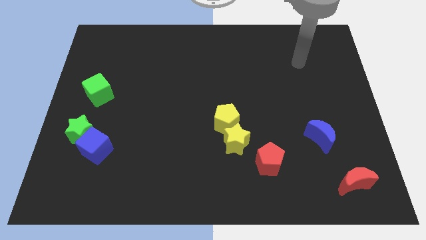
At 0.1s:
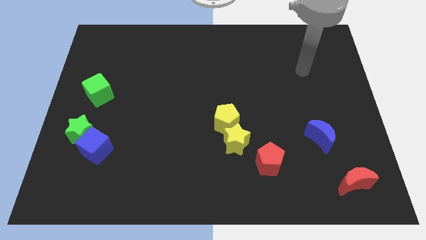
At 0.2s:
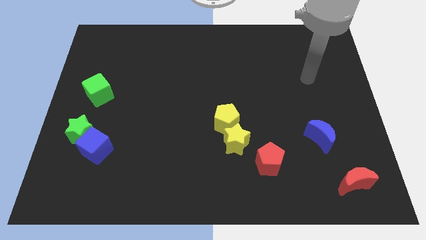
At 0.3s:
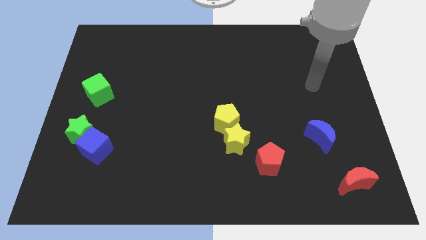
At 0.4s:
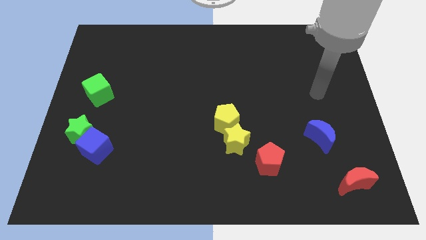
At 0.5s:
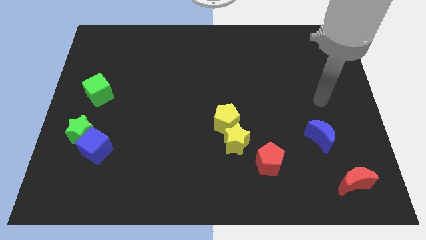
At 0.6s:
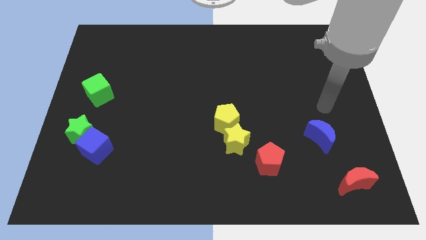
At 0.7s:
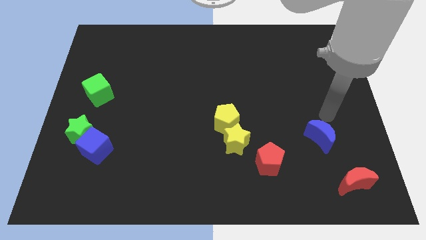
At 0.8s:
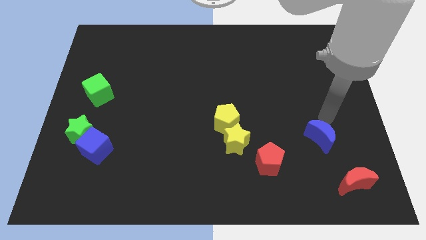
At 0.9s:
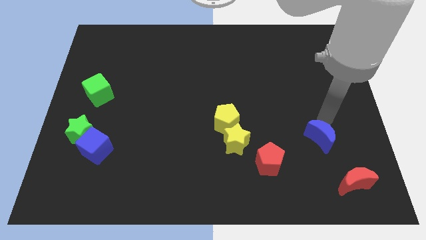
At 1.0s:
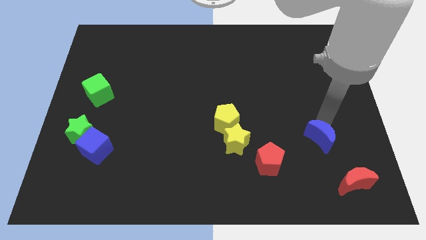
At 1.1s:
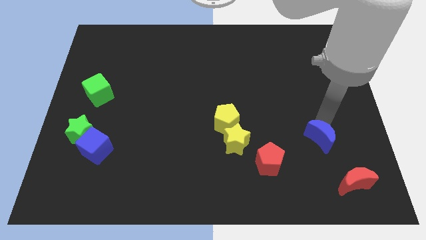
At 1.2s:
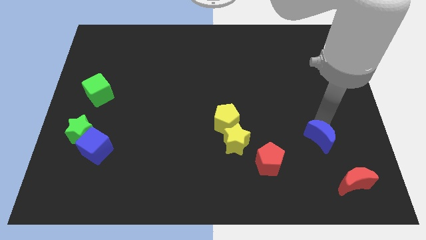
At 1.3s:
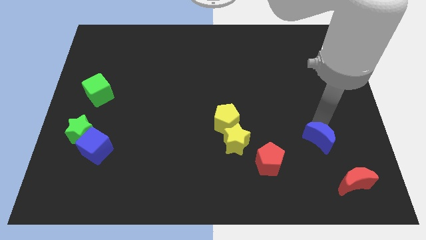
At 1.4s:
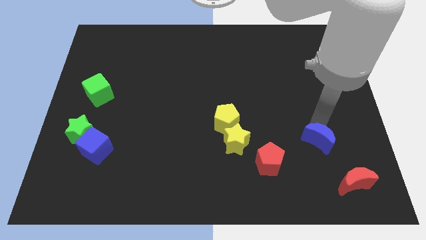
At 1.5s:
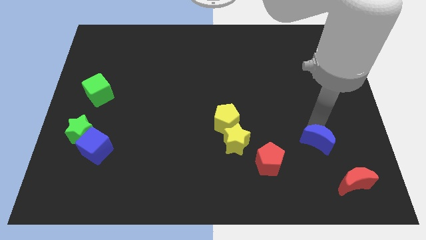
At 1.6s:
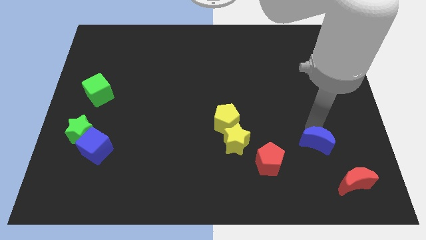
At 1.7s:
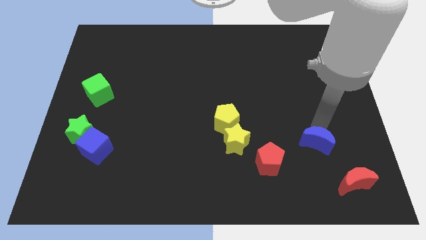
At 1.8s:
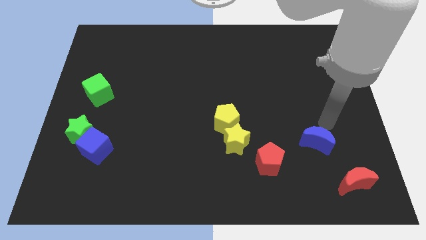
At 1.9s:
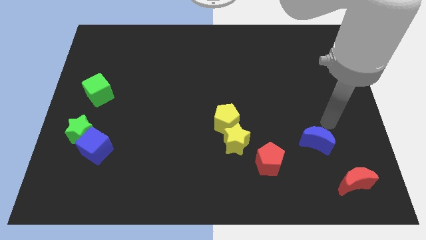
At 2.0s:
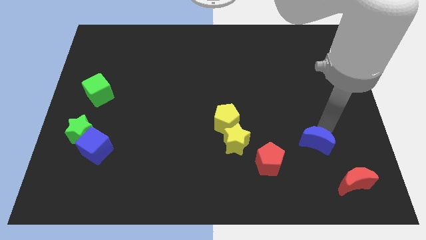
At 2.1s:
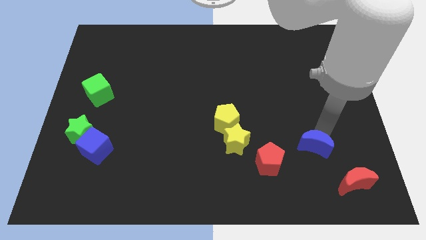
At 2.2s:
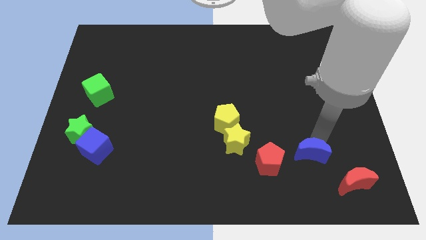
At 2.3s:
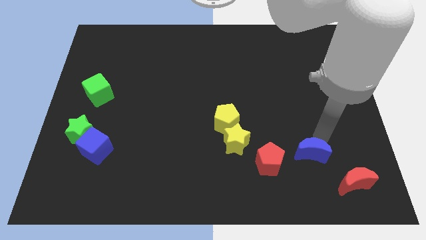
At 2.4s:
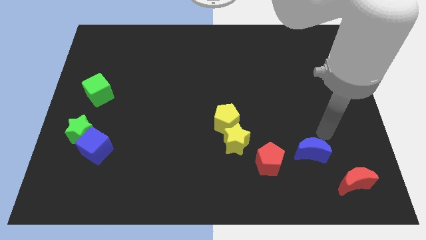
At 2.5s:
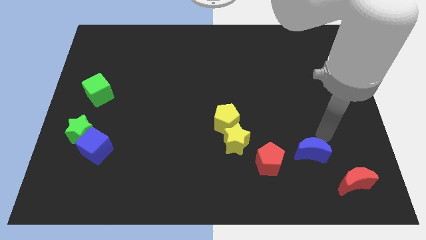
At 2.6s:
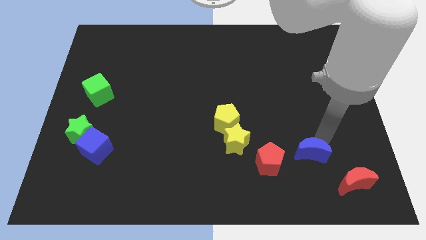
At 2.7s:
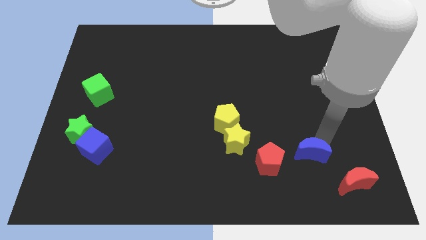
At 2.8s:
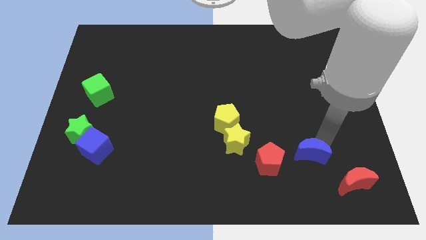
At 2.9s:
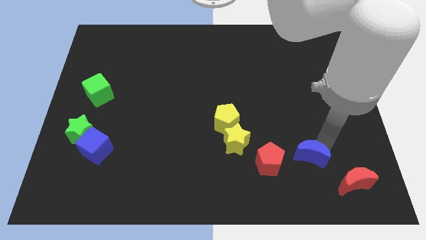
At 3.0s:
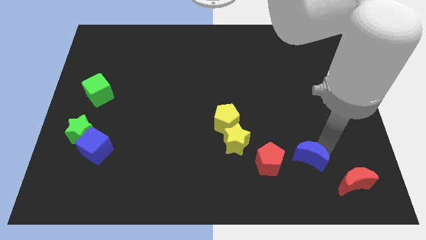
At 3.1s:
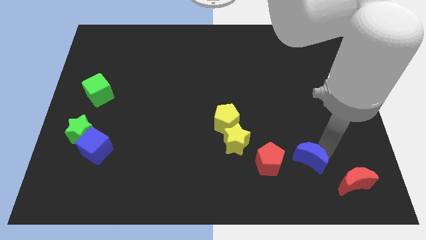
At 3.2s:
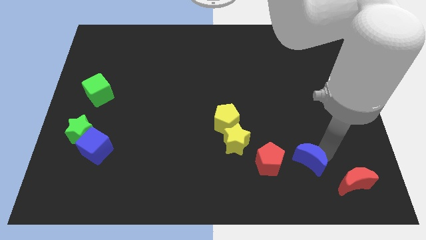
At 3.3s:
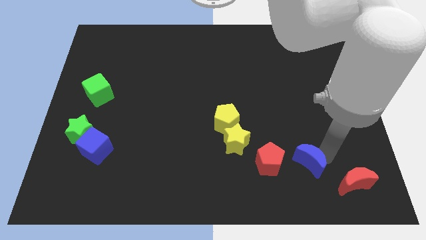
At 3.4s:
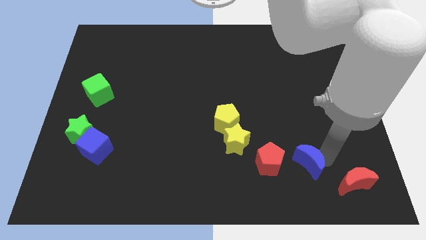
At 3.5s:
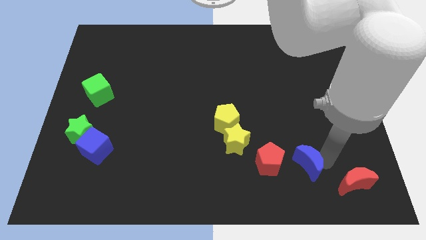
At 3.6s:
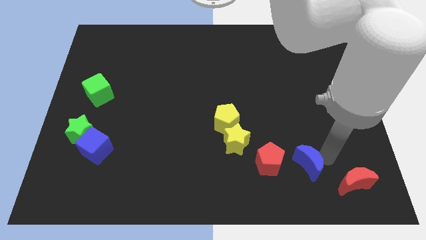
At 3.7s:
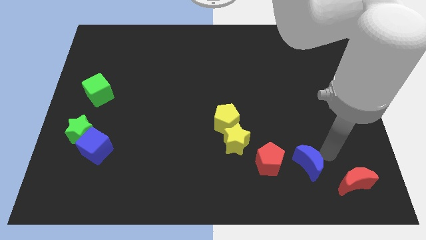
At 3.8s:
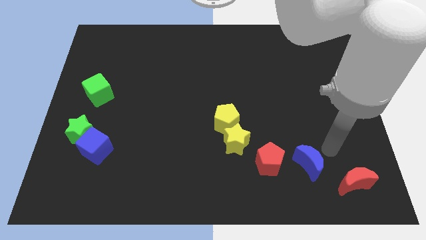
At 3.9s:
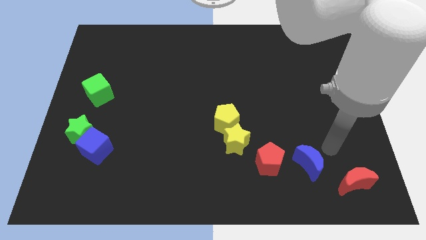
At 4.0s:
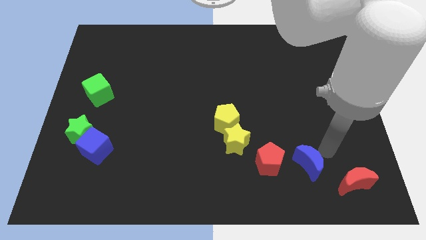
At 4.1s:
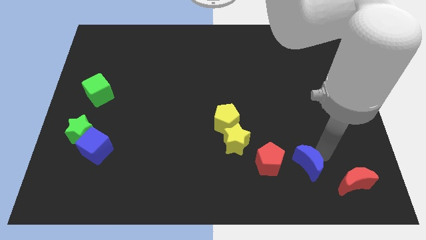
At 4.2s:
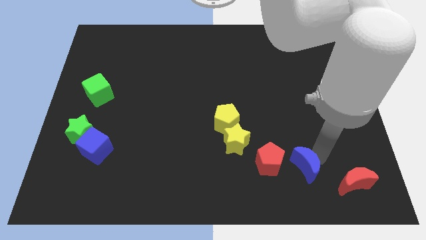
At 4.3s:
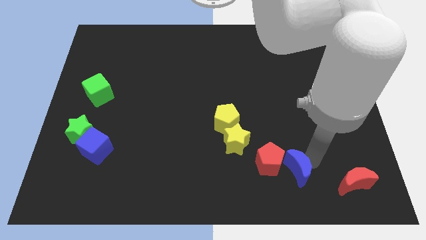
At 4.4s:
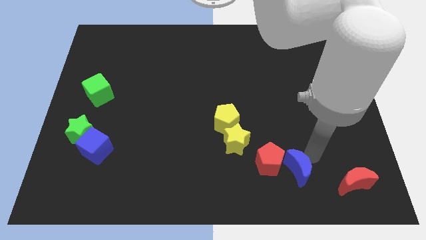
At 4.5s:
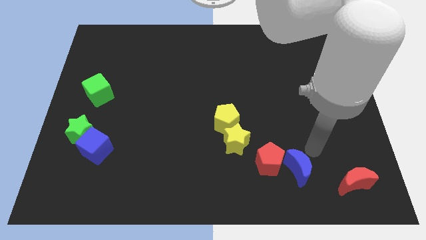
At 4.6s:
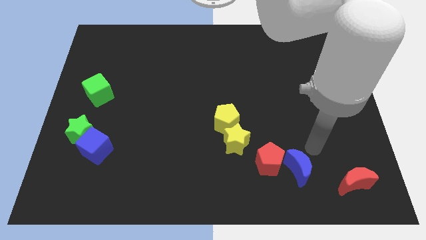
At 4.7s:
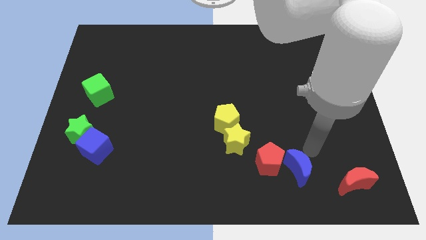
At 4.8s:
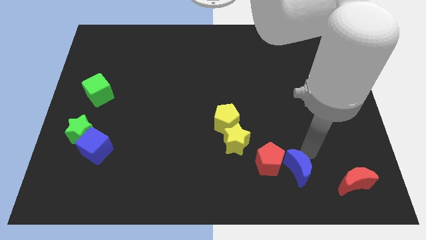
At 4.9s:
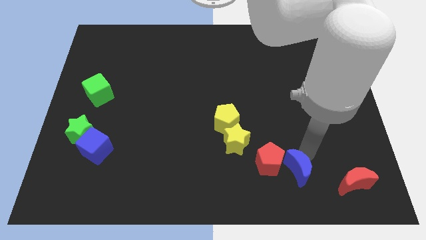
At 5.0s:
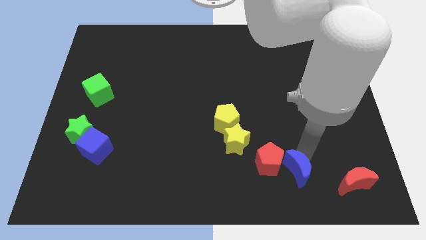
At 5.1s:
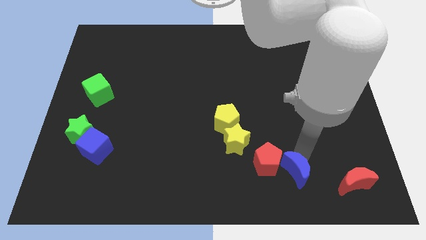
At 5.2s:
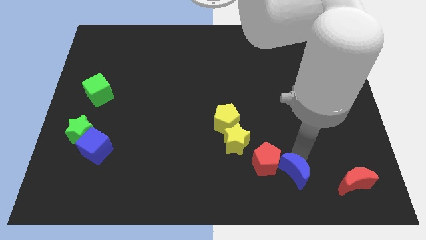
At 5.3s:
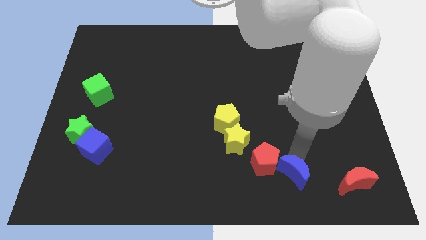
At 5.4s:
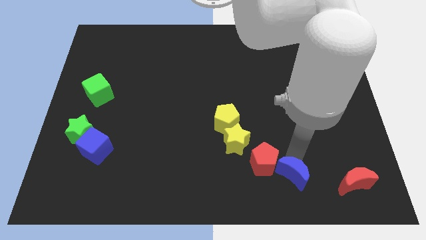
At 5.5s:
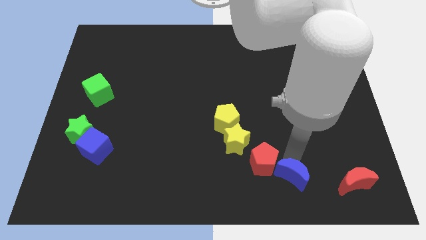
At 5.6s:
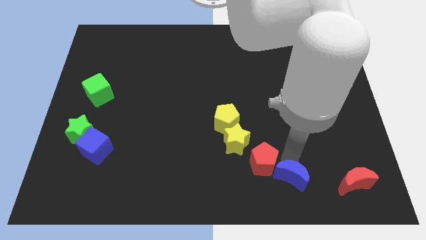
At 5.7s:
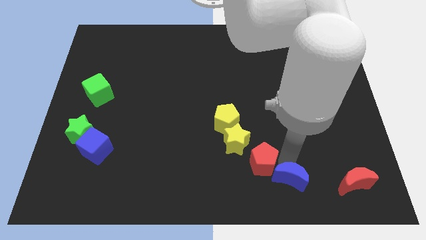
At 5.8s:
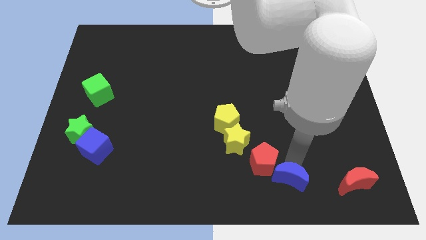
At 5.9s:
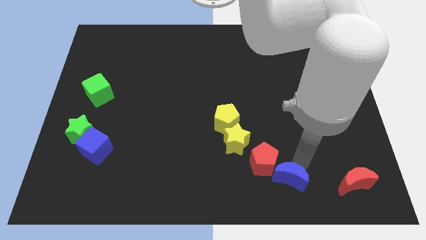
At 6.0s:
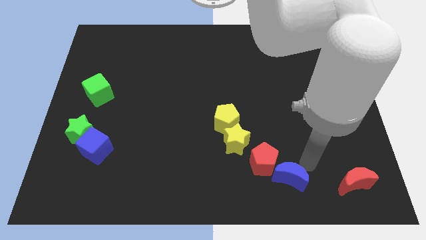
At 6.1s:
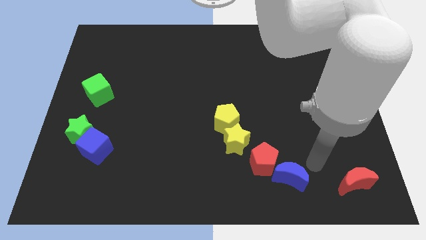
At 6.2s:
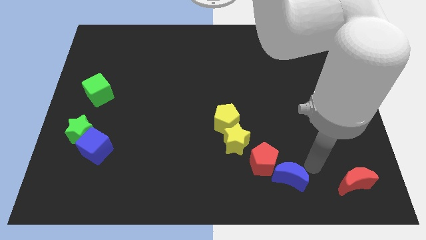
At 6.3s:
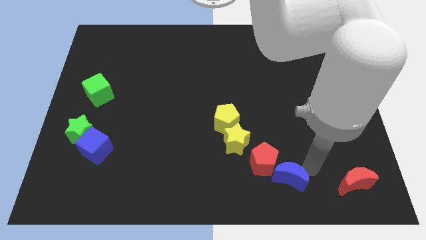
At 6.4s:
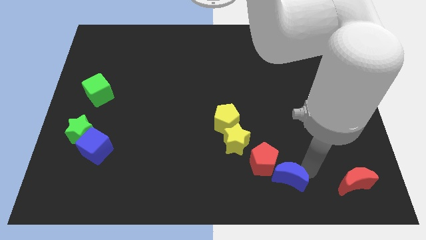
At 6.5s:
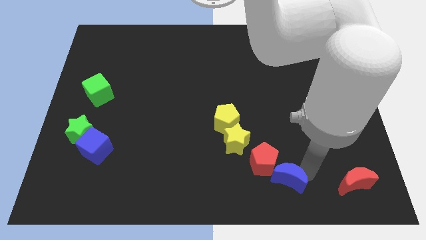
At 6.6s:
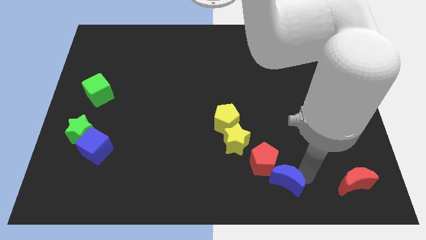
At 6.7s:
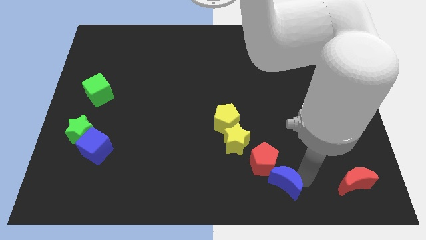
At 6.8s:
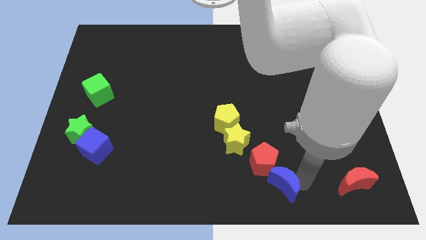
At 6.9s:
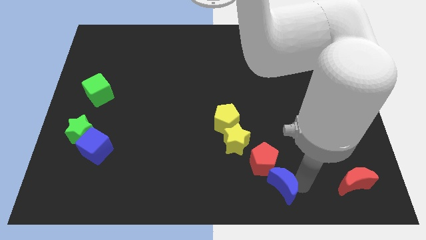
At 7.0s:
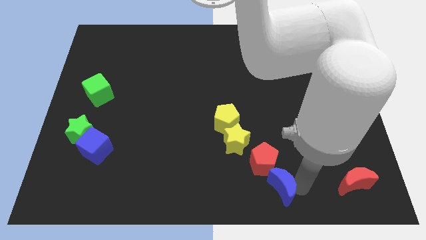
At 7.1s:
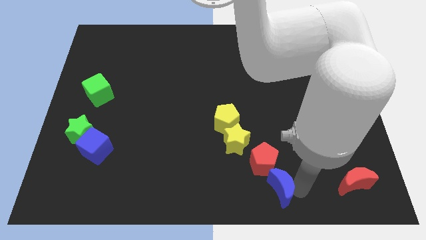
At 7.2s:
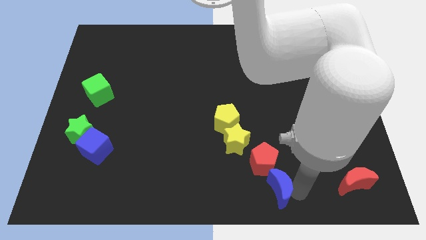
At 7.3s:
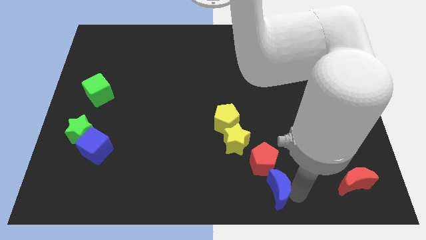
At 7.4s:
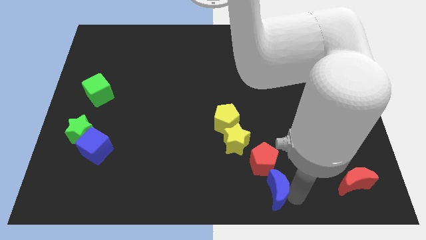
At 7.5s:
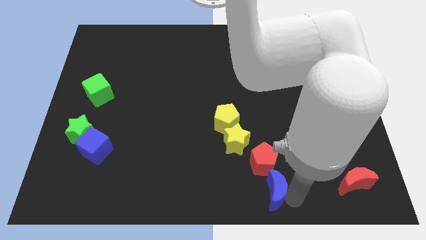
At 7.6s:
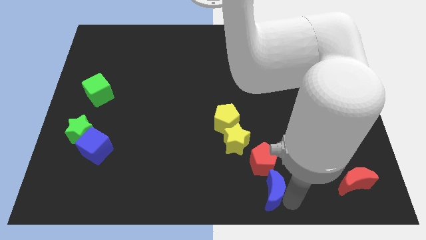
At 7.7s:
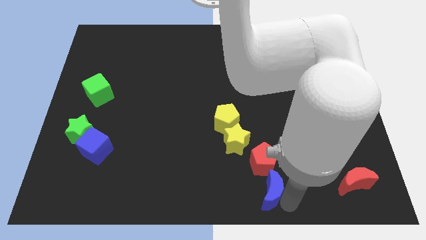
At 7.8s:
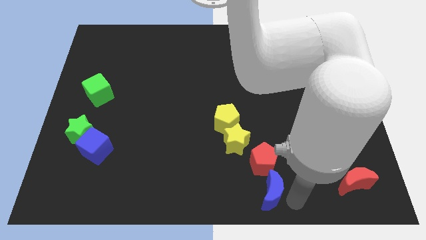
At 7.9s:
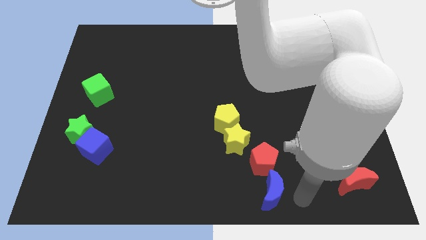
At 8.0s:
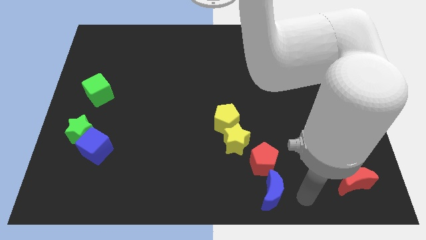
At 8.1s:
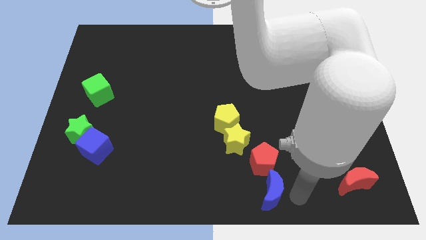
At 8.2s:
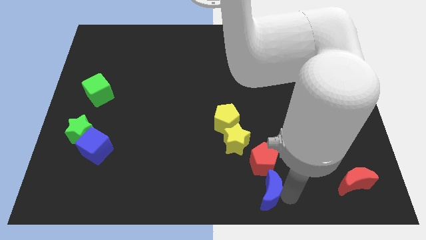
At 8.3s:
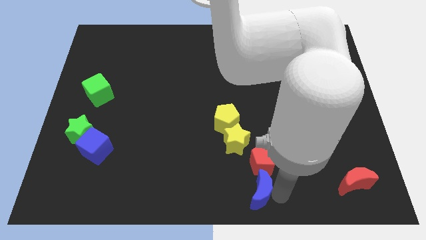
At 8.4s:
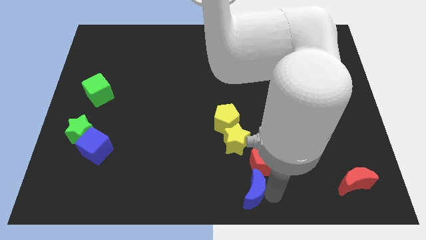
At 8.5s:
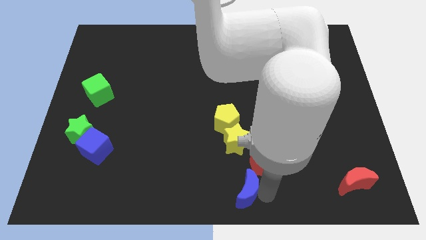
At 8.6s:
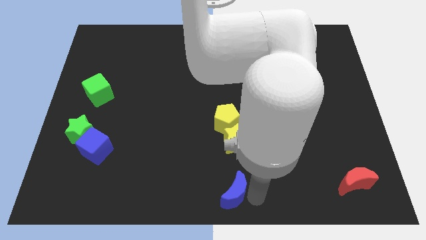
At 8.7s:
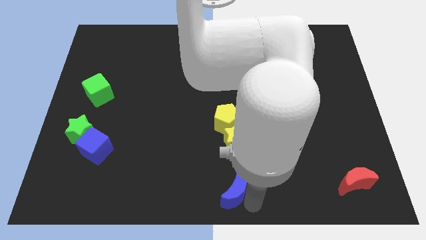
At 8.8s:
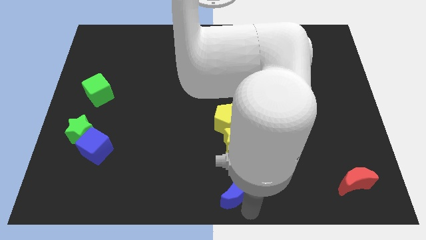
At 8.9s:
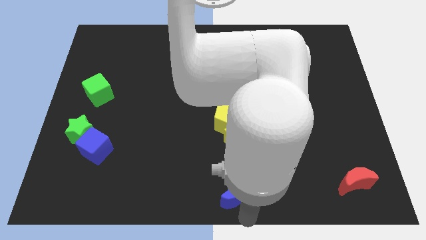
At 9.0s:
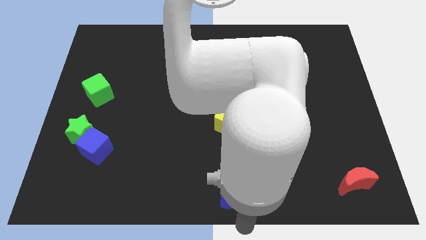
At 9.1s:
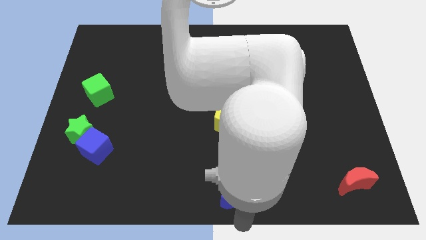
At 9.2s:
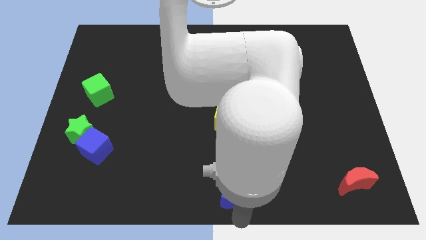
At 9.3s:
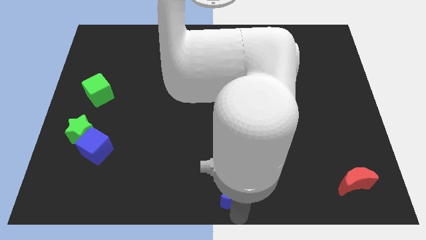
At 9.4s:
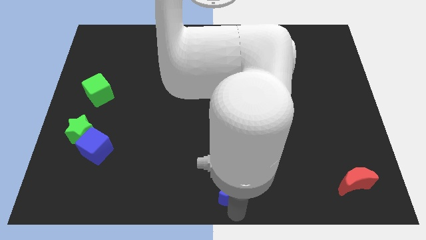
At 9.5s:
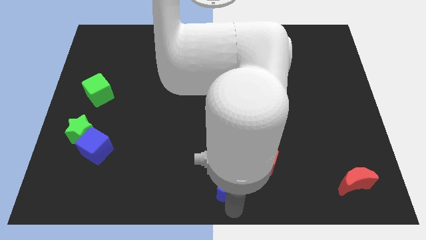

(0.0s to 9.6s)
slide the blue moon to the bottom of the yellow pentagon
